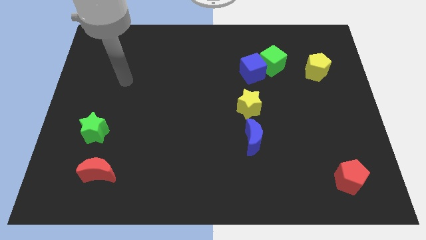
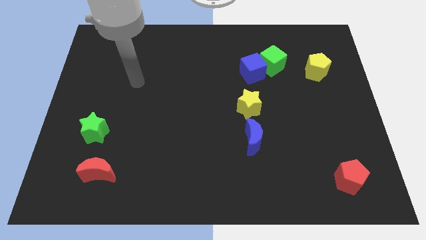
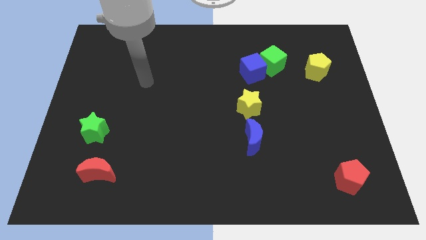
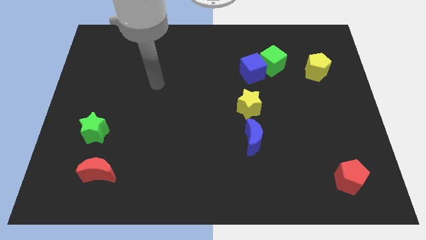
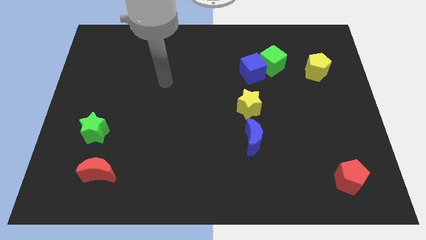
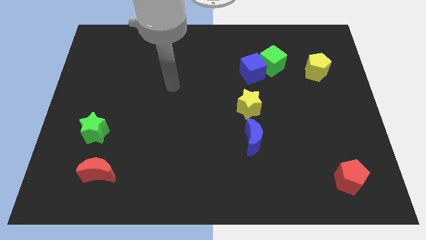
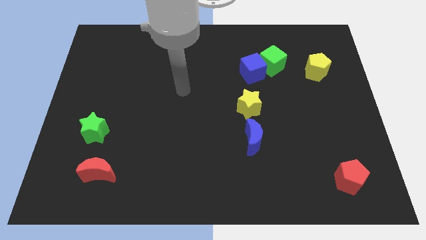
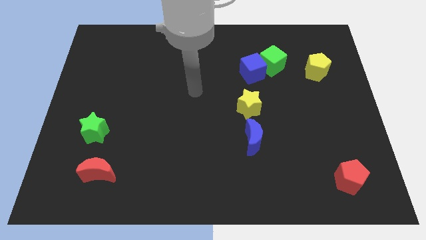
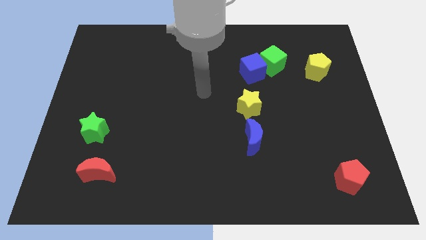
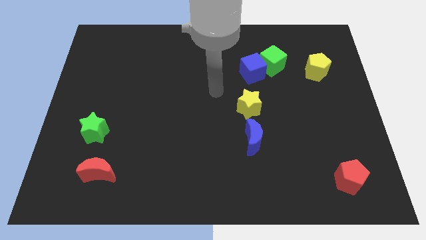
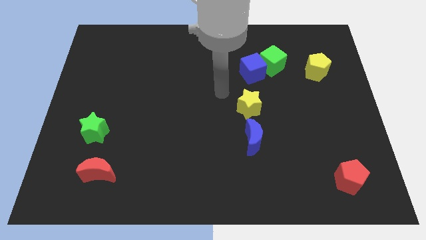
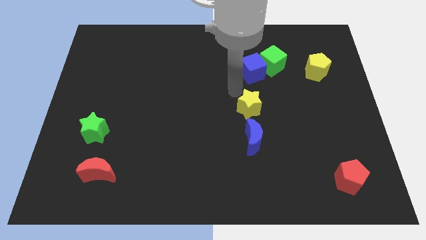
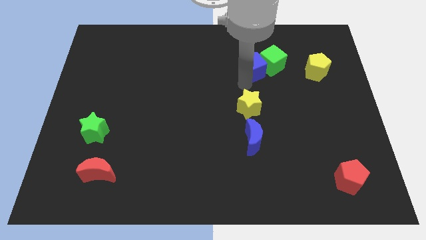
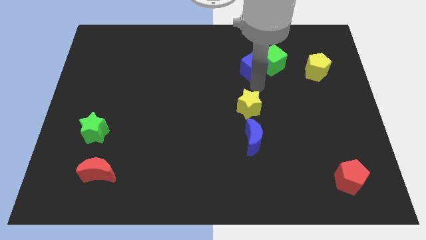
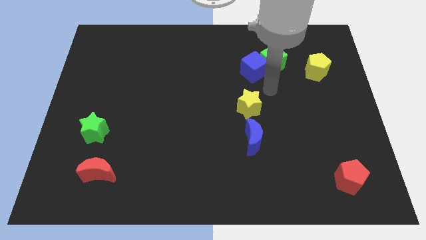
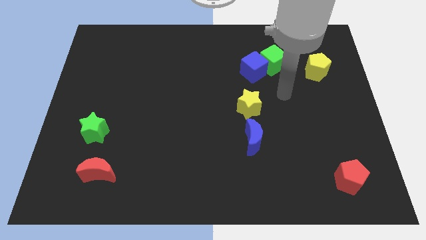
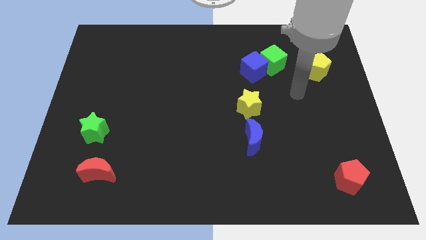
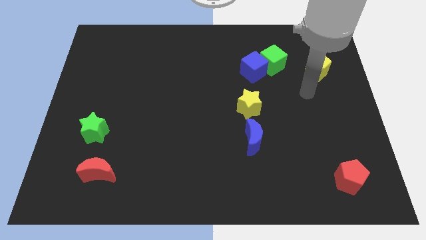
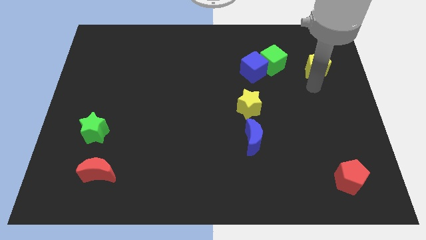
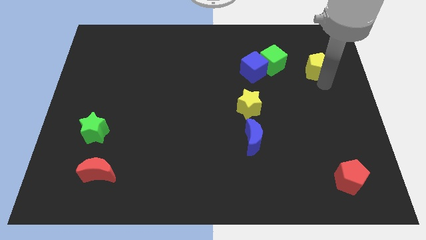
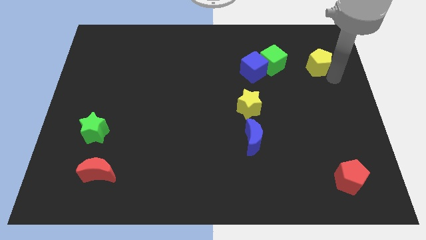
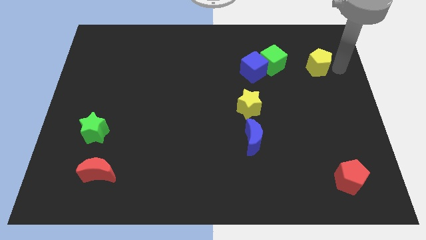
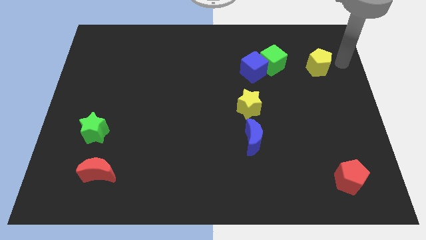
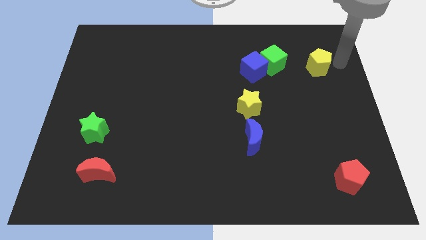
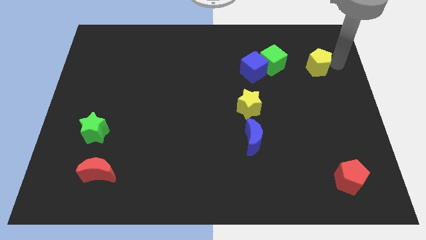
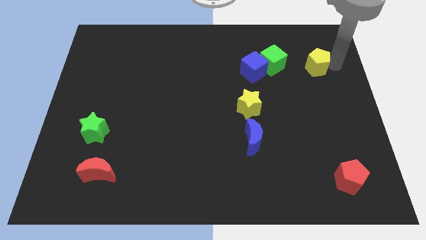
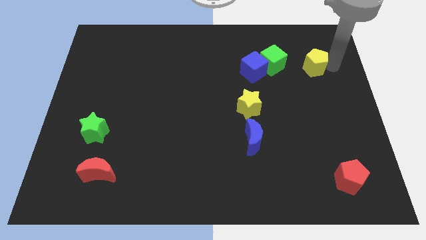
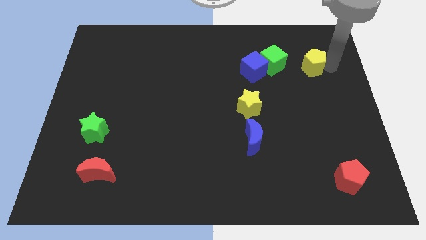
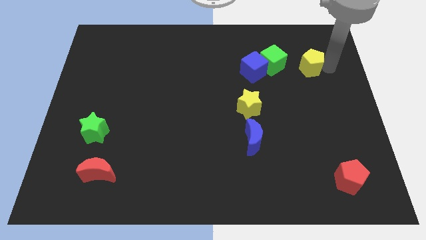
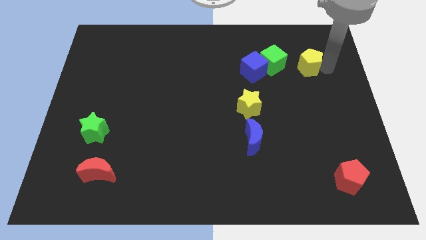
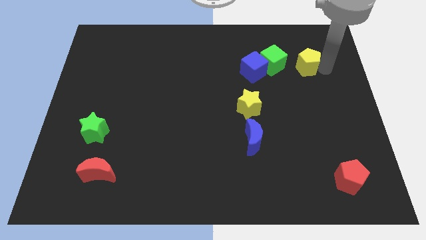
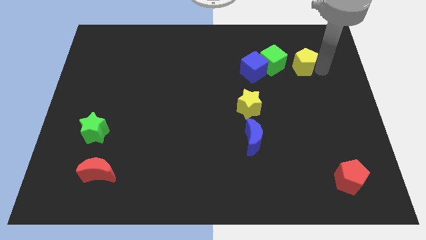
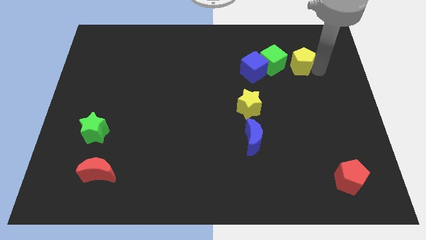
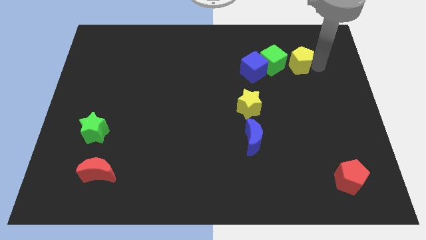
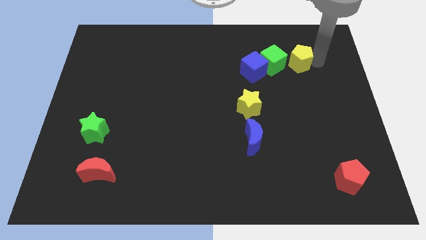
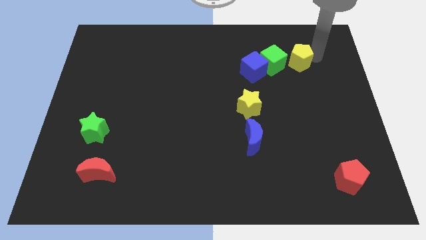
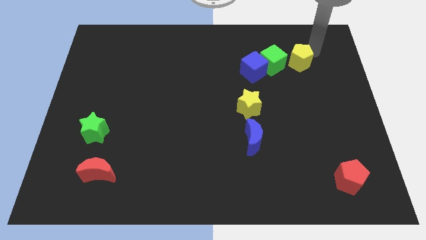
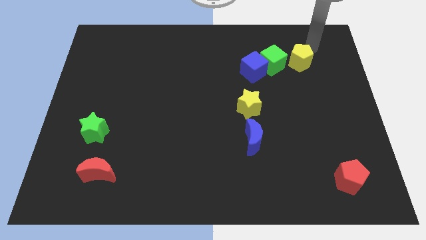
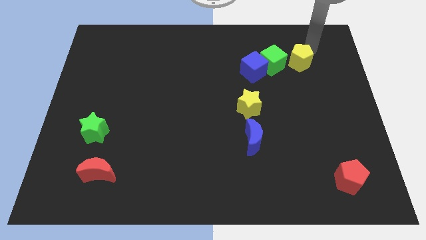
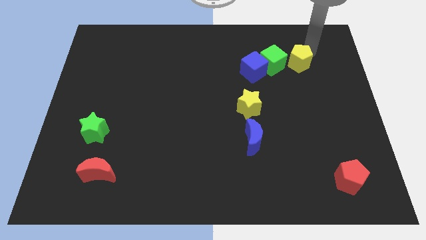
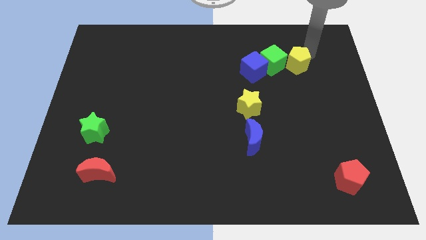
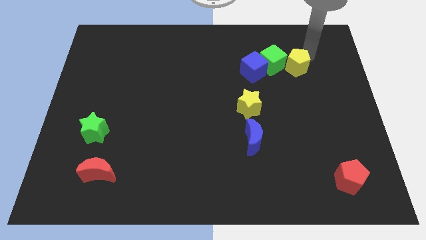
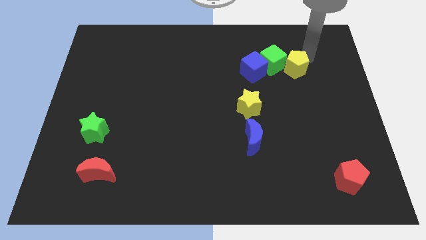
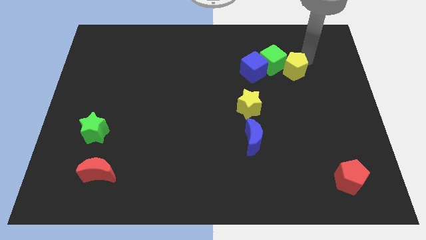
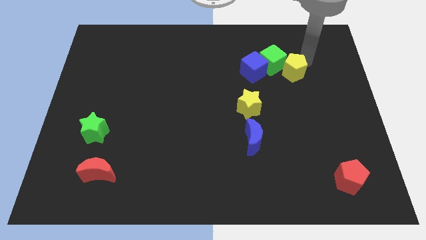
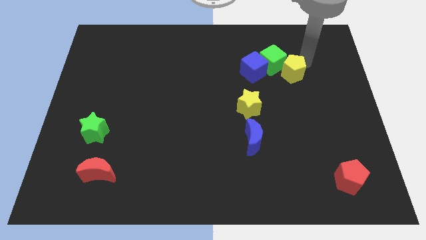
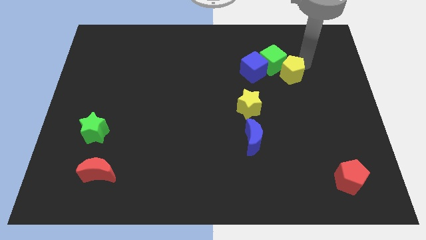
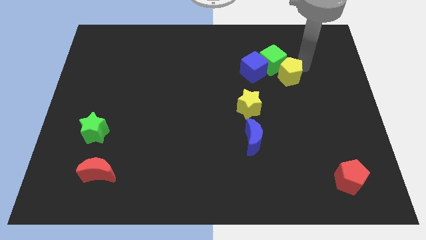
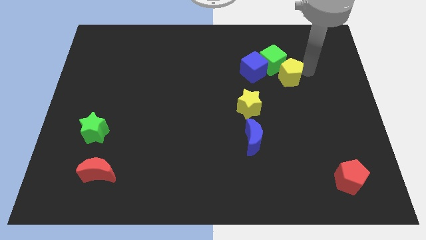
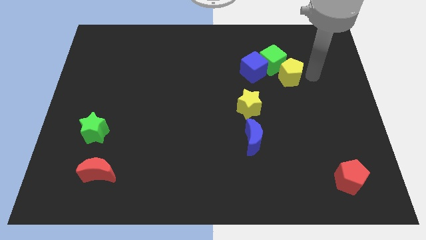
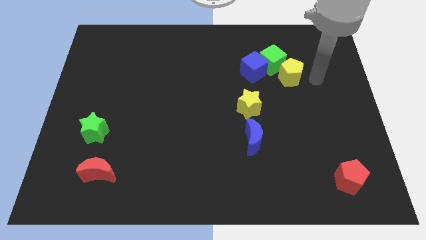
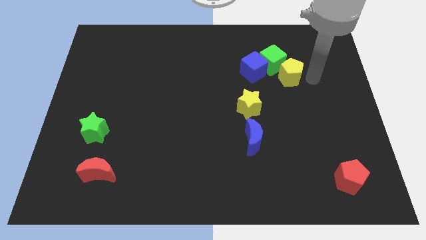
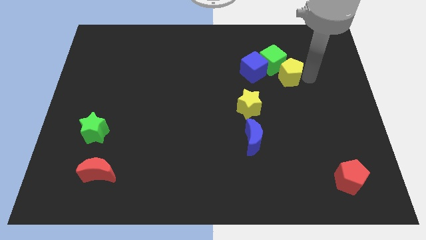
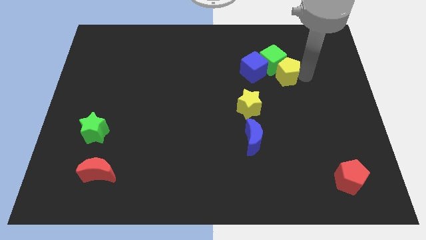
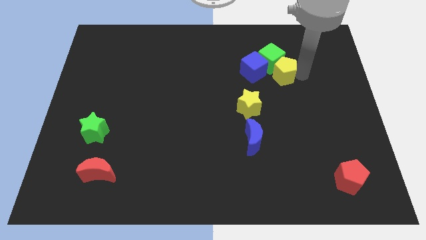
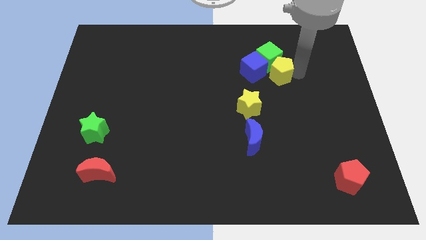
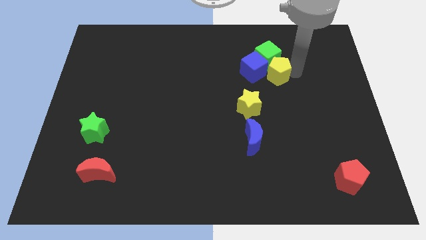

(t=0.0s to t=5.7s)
move the yellow pentagon towards the blue cube

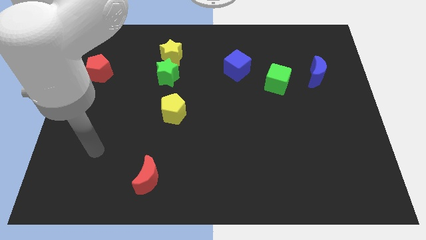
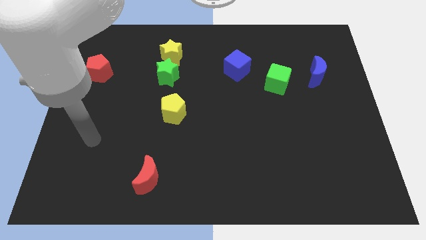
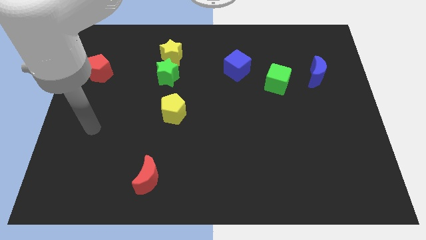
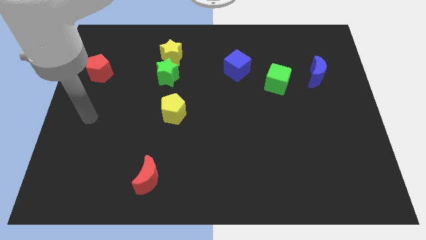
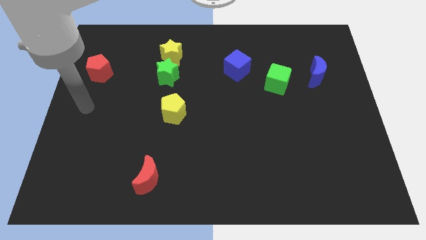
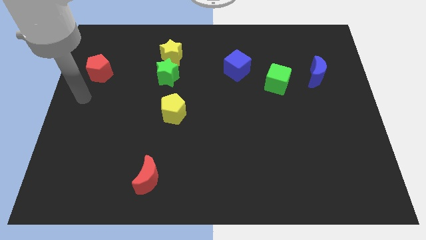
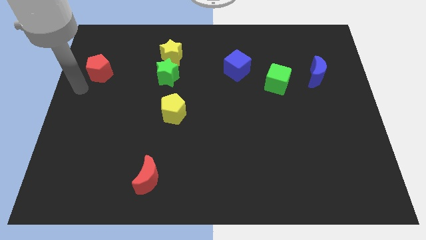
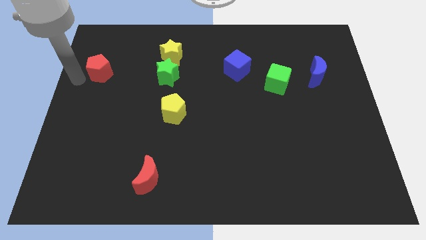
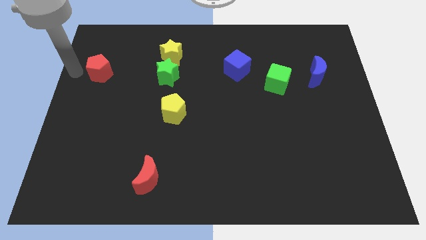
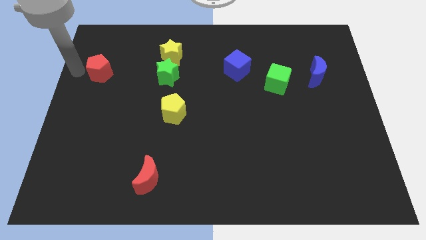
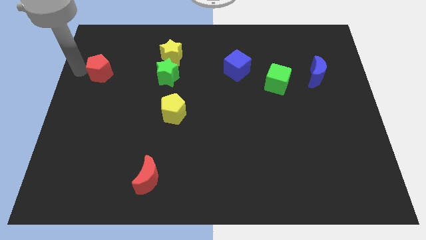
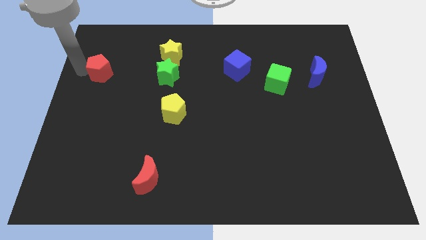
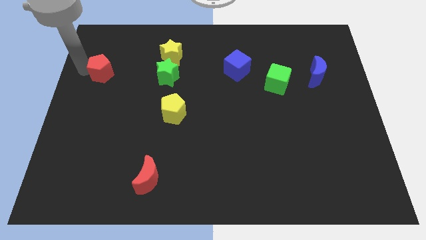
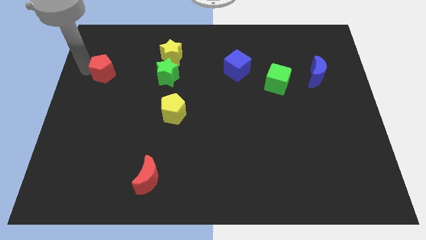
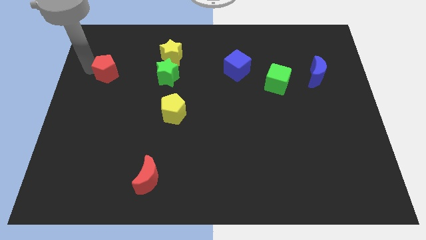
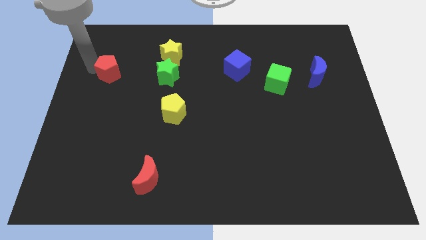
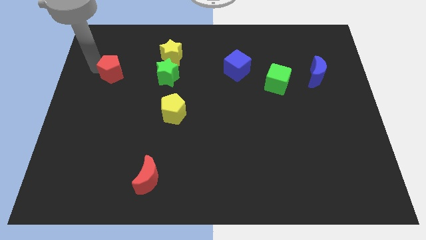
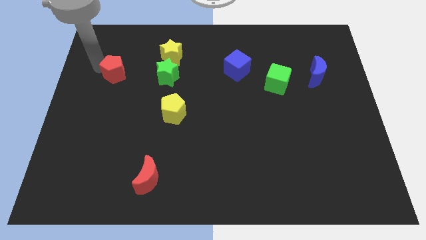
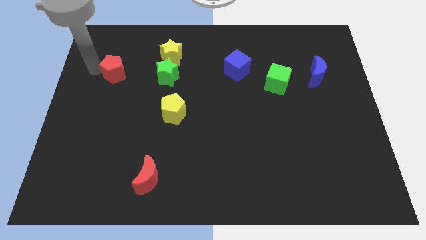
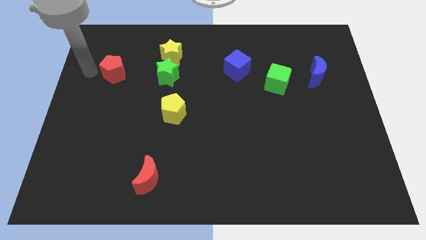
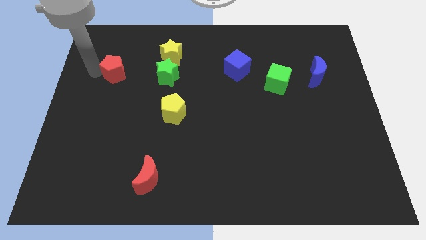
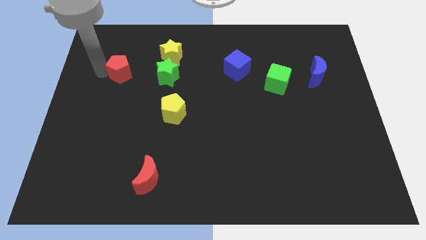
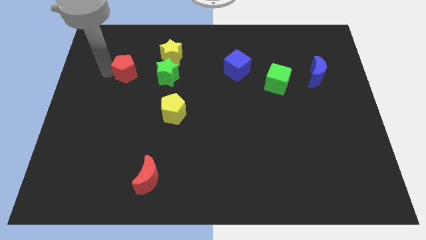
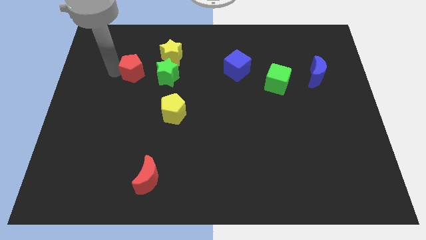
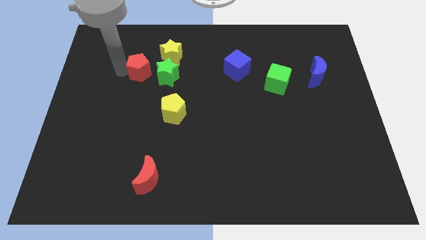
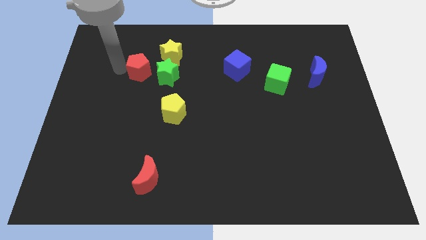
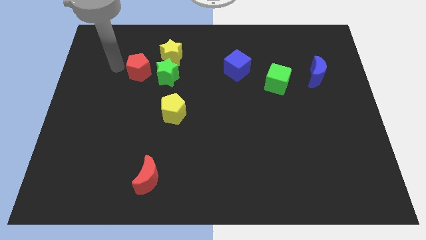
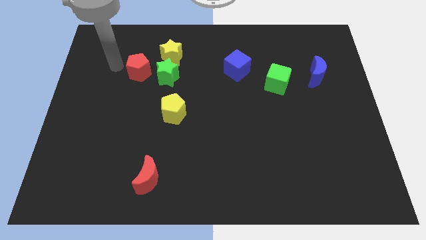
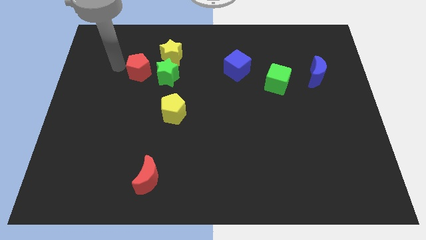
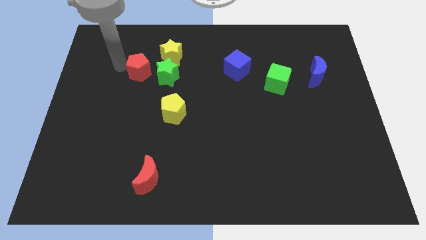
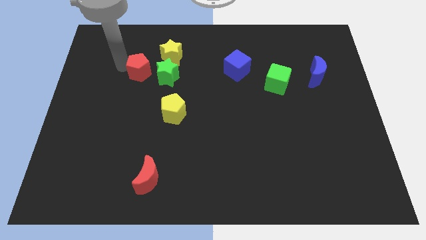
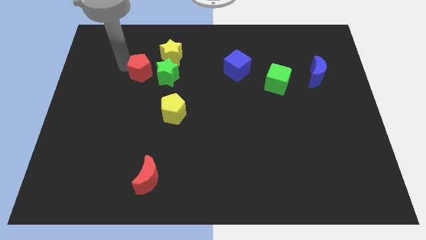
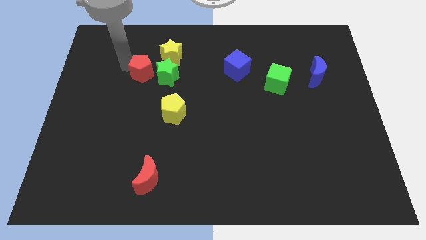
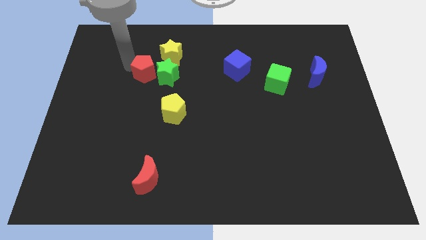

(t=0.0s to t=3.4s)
put the red pentagon towards the green star
